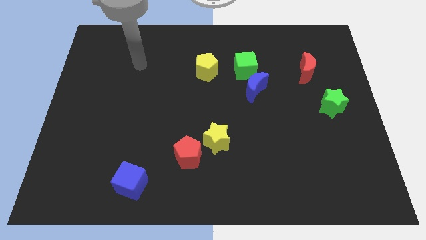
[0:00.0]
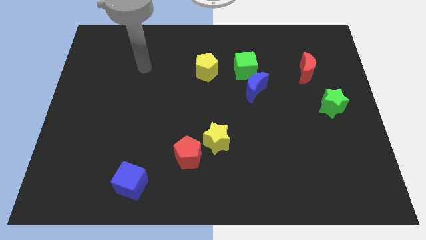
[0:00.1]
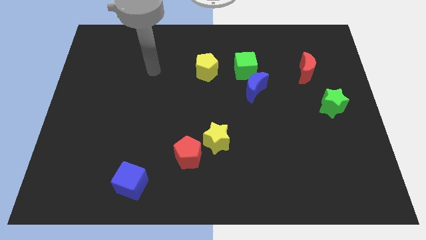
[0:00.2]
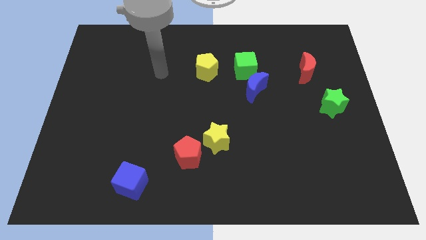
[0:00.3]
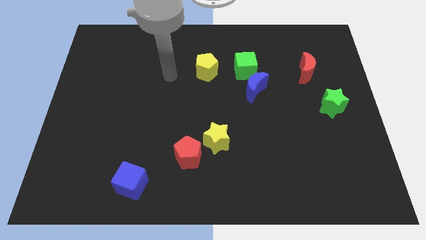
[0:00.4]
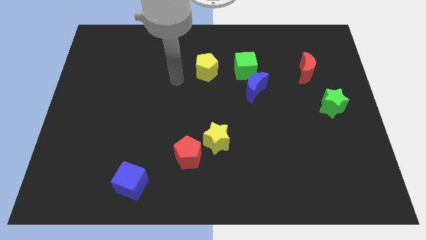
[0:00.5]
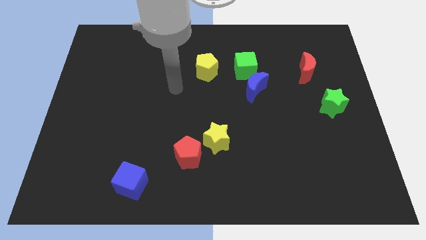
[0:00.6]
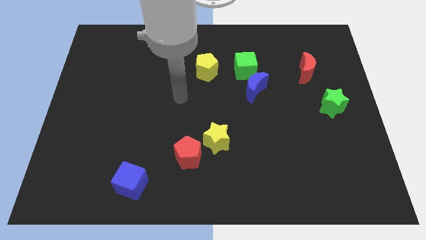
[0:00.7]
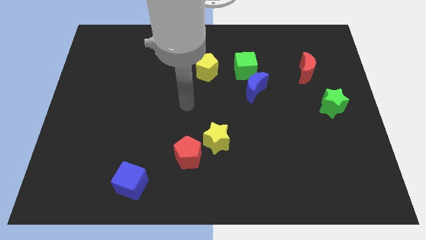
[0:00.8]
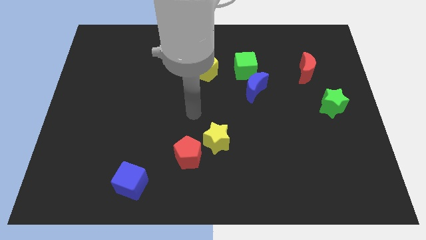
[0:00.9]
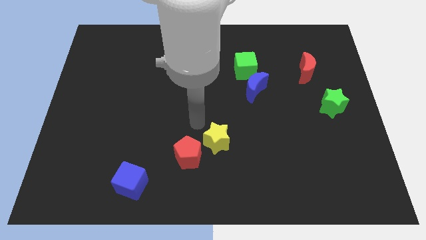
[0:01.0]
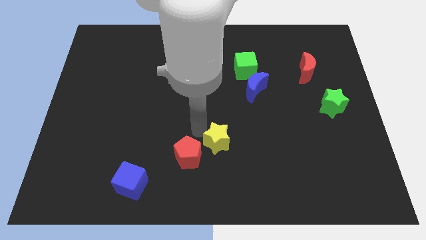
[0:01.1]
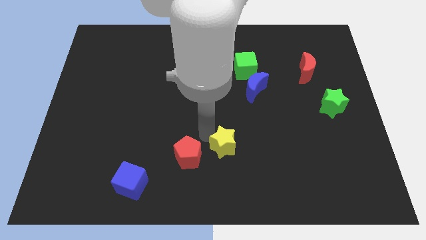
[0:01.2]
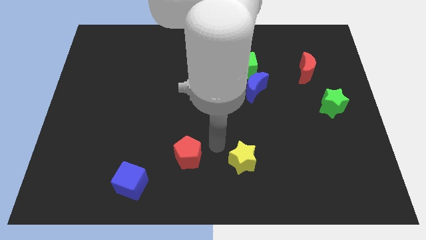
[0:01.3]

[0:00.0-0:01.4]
pull the red pentagon apart from the yellow star

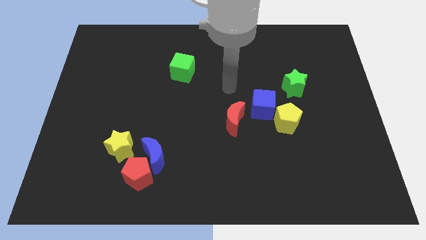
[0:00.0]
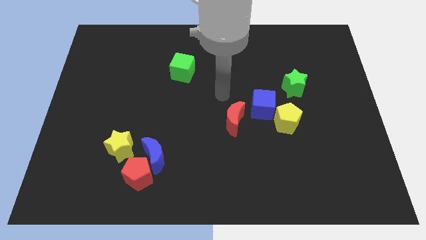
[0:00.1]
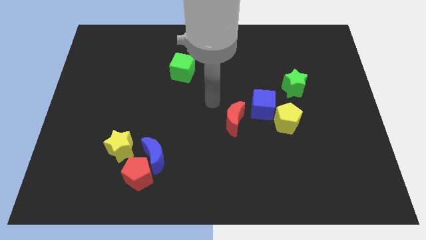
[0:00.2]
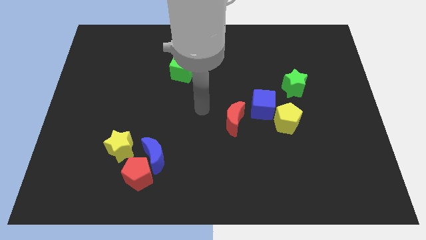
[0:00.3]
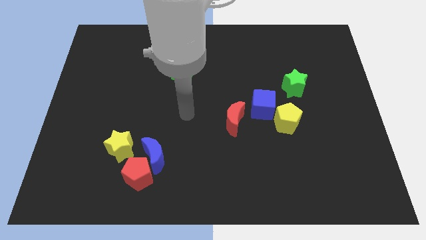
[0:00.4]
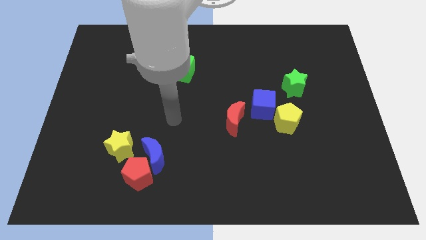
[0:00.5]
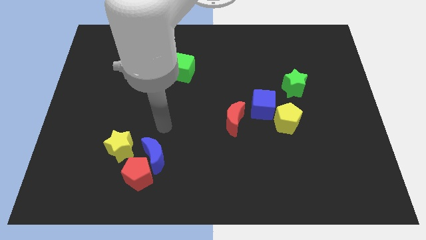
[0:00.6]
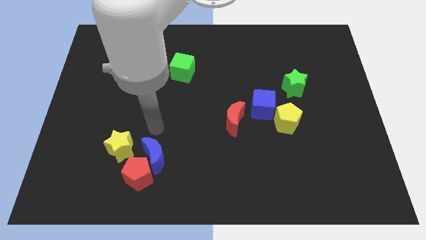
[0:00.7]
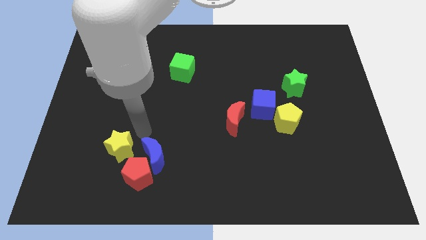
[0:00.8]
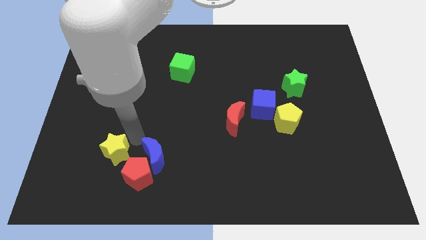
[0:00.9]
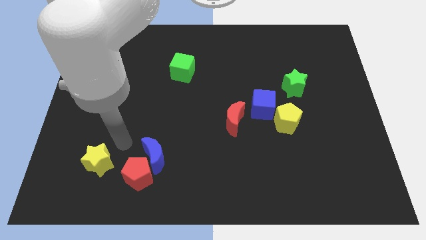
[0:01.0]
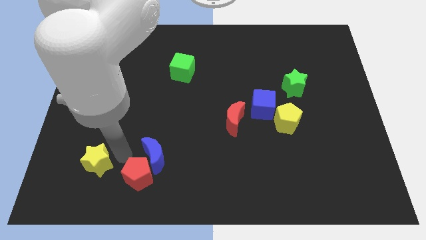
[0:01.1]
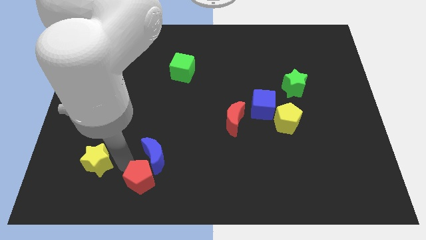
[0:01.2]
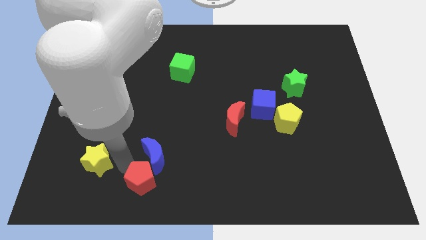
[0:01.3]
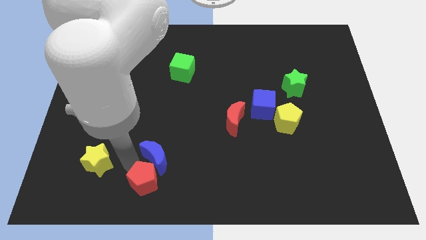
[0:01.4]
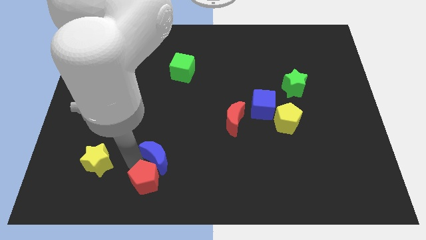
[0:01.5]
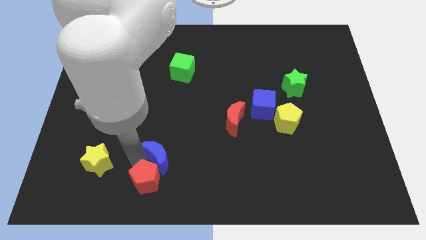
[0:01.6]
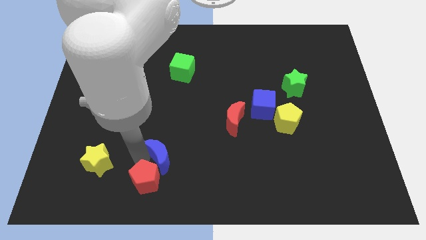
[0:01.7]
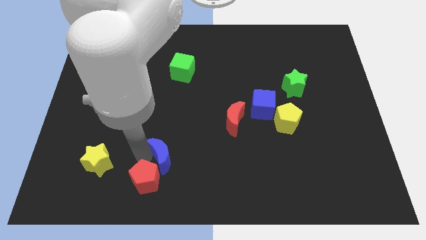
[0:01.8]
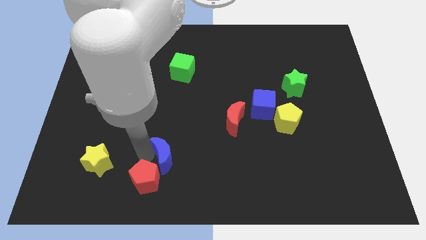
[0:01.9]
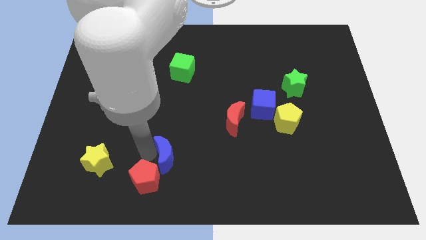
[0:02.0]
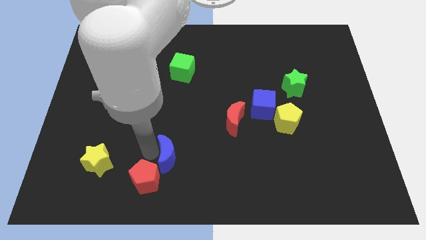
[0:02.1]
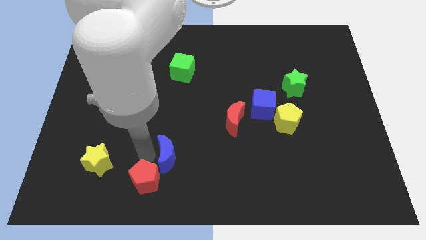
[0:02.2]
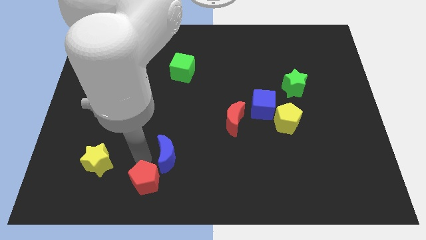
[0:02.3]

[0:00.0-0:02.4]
pull the blue moon apart from the red pentagon and yellow star

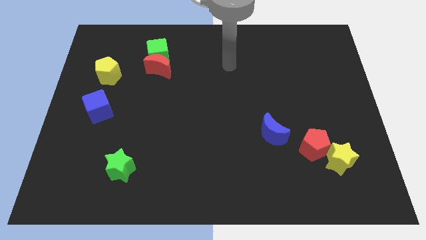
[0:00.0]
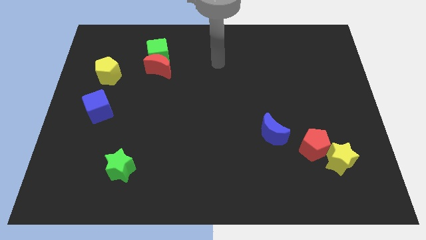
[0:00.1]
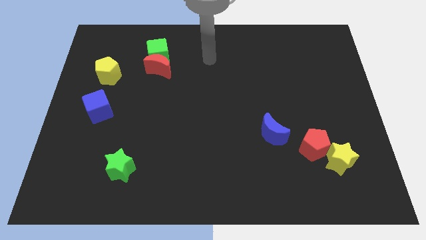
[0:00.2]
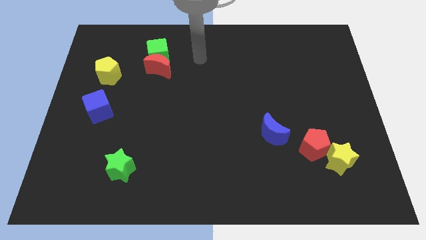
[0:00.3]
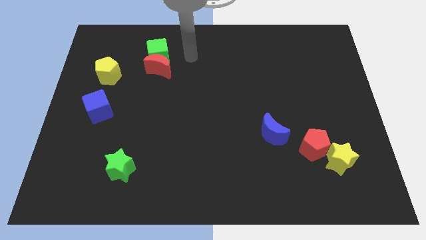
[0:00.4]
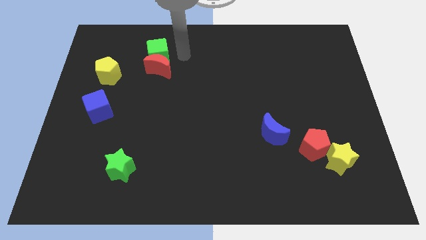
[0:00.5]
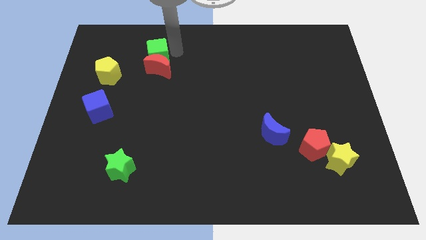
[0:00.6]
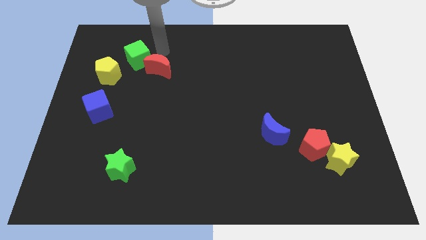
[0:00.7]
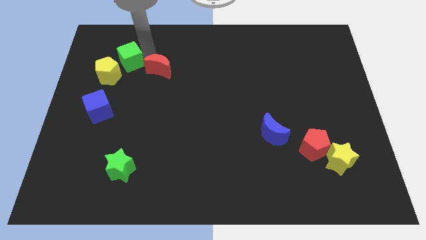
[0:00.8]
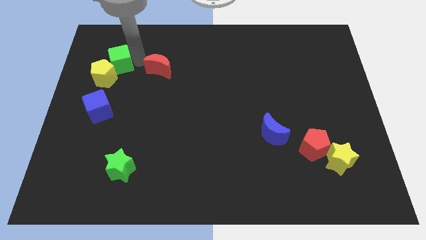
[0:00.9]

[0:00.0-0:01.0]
separate the red moon from the green cube

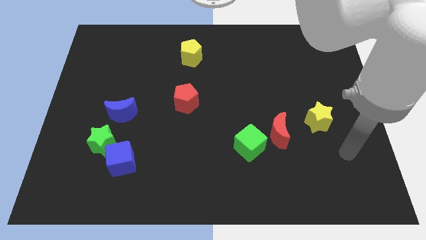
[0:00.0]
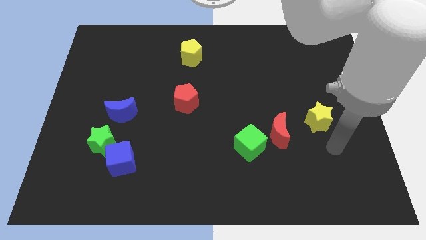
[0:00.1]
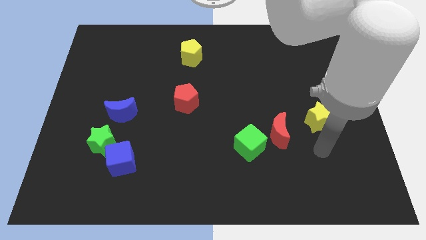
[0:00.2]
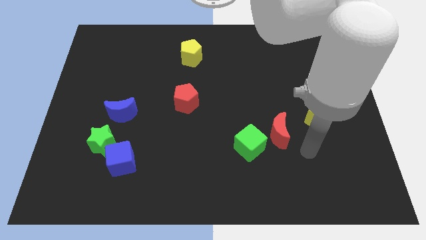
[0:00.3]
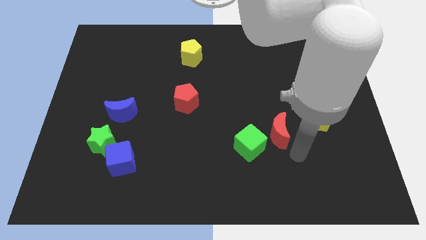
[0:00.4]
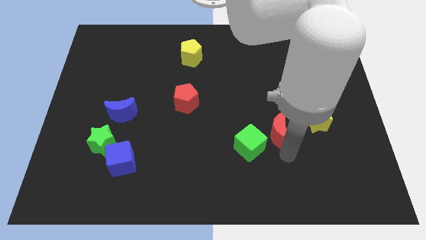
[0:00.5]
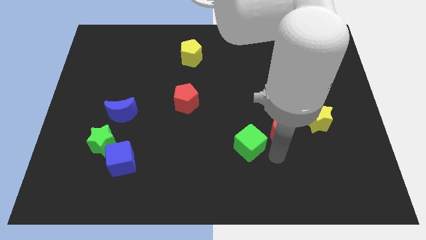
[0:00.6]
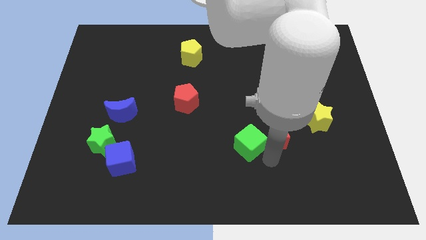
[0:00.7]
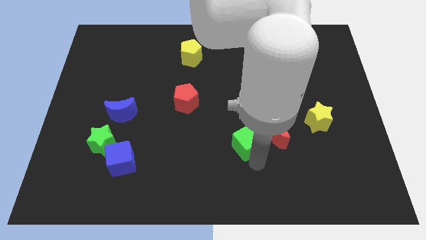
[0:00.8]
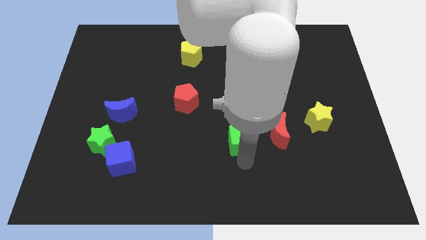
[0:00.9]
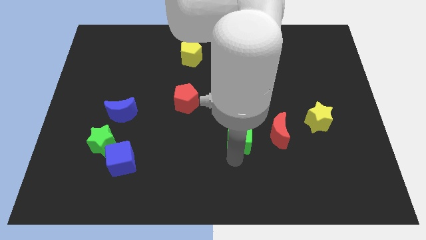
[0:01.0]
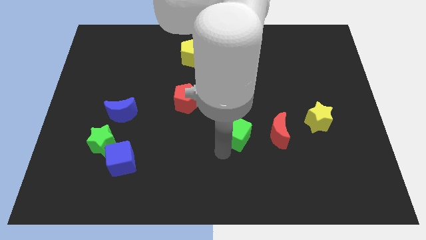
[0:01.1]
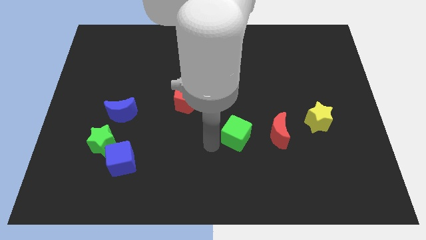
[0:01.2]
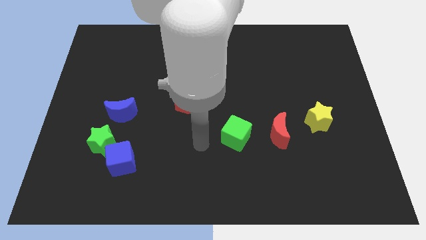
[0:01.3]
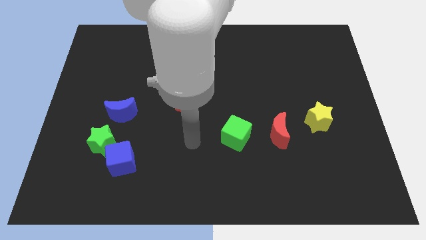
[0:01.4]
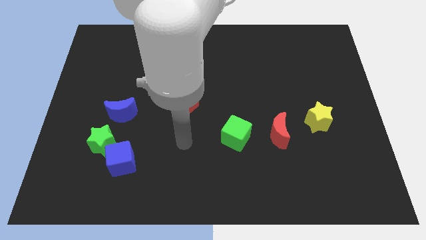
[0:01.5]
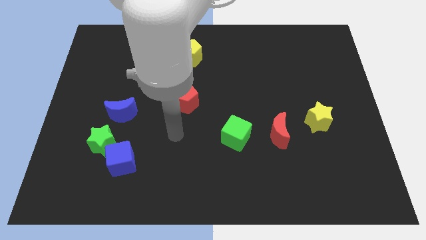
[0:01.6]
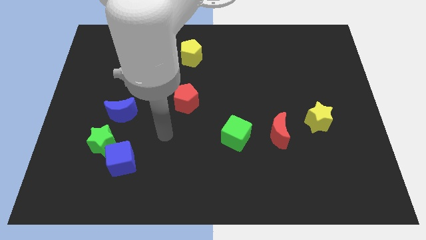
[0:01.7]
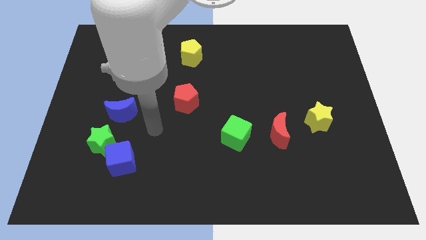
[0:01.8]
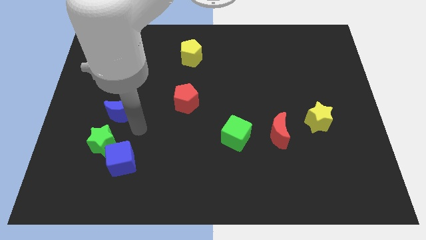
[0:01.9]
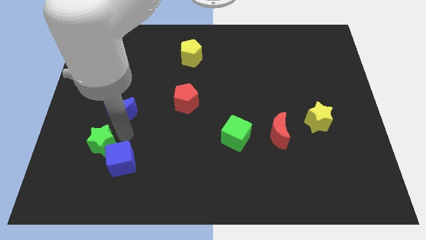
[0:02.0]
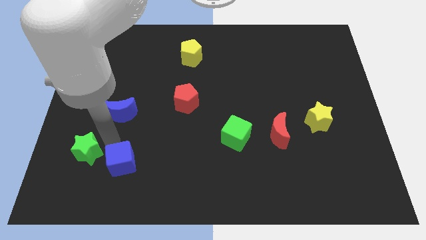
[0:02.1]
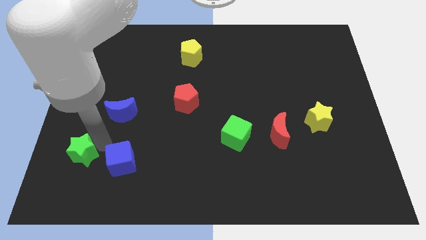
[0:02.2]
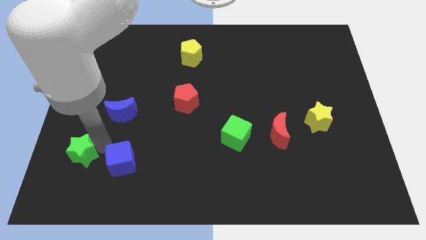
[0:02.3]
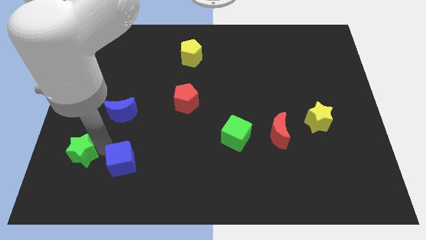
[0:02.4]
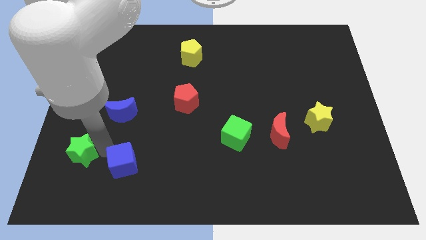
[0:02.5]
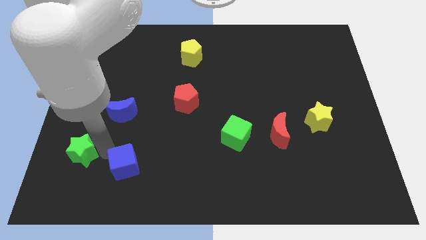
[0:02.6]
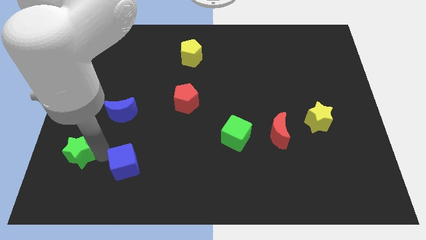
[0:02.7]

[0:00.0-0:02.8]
pull the blue cube apart from the green star

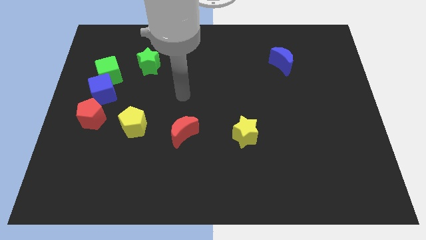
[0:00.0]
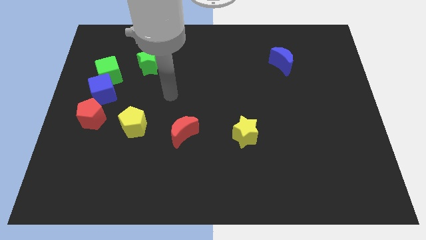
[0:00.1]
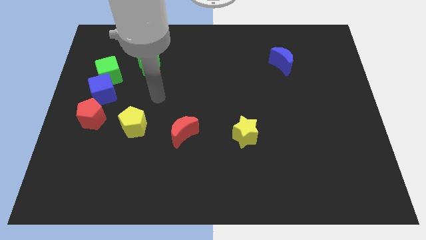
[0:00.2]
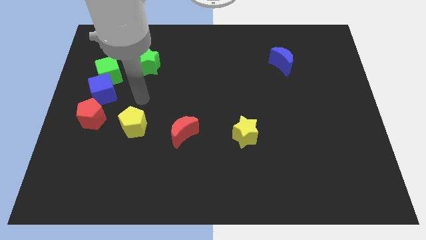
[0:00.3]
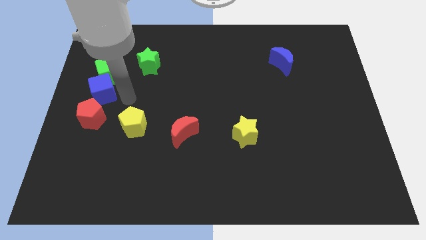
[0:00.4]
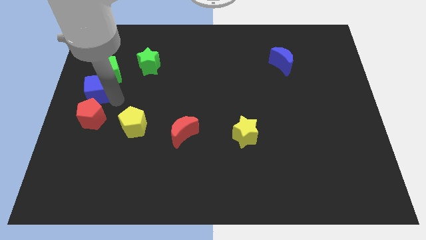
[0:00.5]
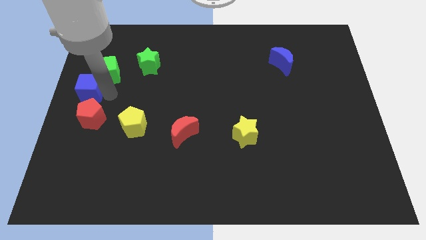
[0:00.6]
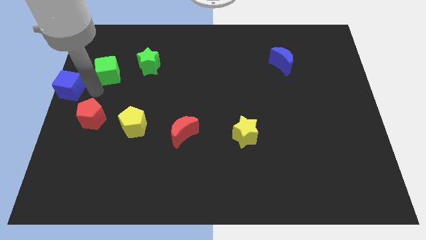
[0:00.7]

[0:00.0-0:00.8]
separate the green cube from the blue cube

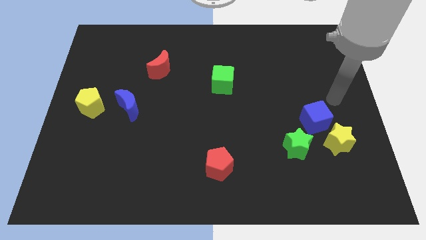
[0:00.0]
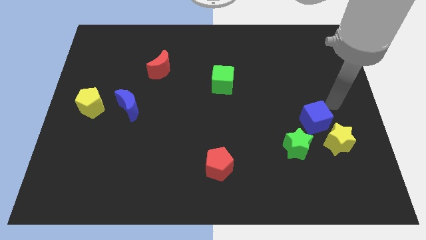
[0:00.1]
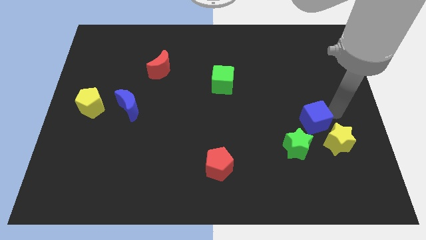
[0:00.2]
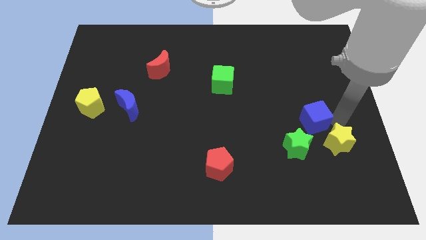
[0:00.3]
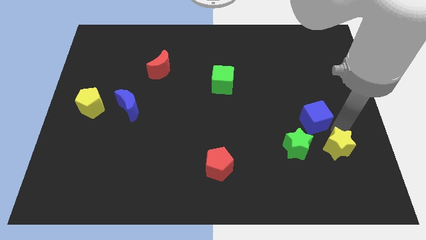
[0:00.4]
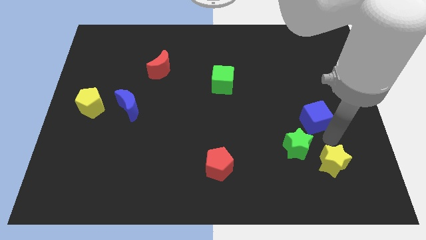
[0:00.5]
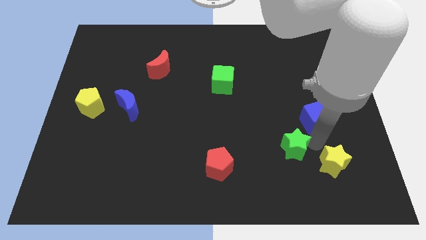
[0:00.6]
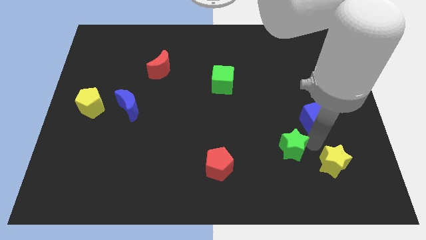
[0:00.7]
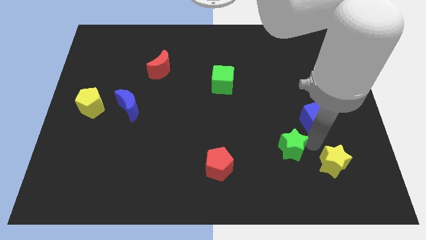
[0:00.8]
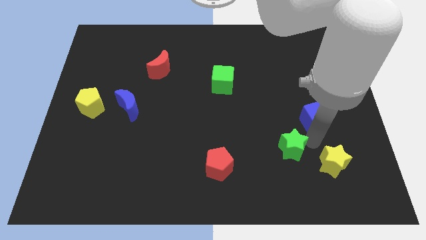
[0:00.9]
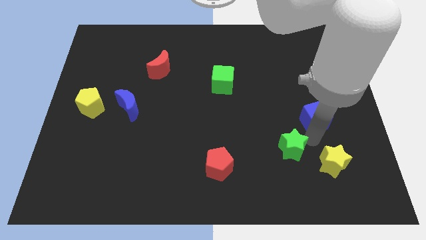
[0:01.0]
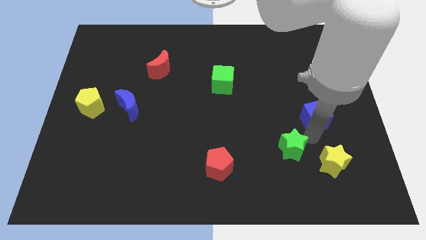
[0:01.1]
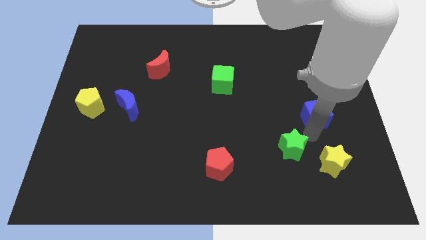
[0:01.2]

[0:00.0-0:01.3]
pull the blue cube apart from the yellow star and green star
